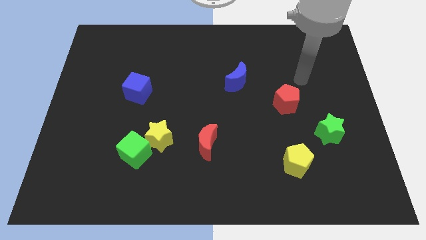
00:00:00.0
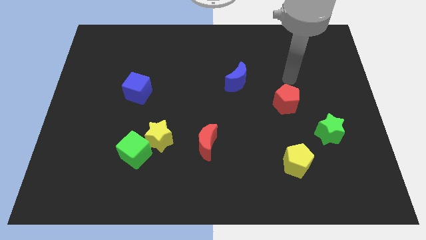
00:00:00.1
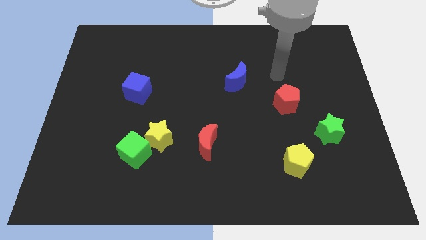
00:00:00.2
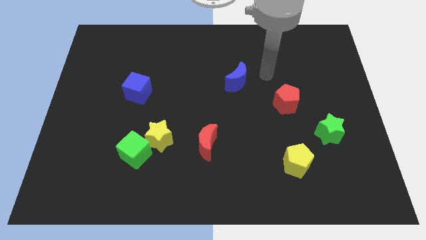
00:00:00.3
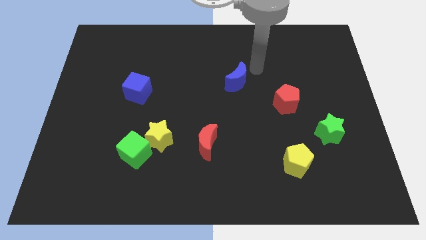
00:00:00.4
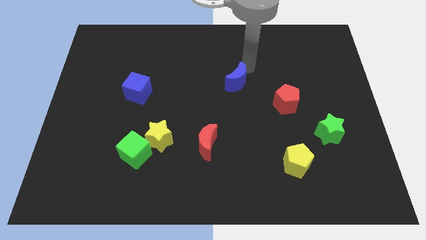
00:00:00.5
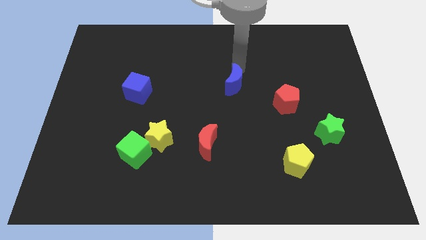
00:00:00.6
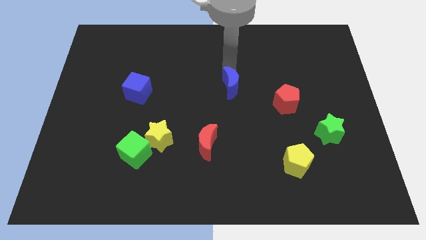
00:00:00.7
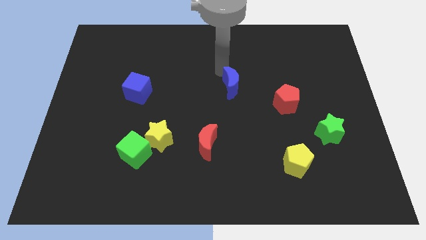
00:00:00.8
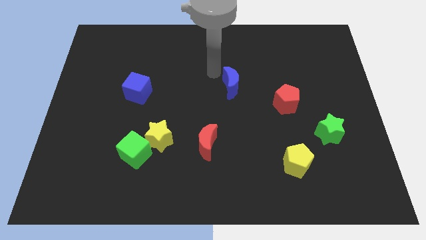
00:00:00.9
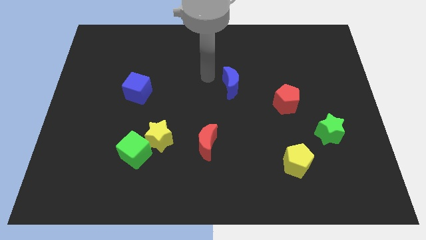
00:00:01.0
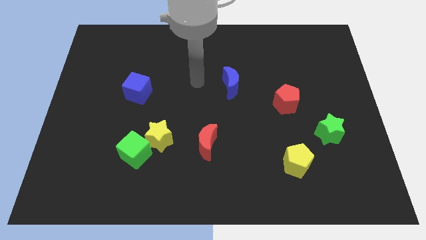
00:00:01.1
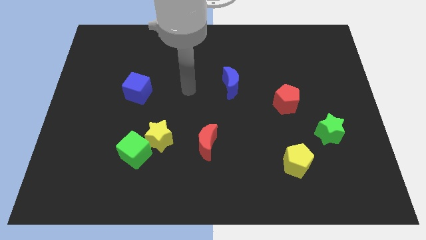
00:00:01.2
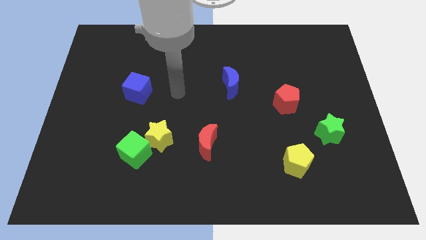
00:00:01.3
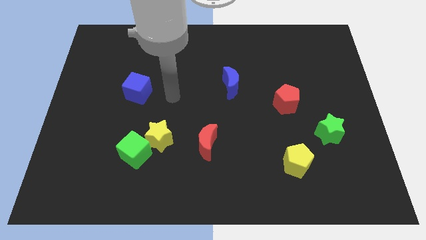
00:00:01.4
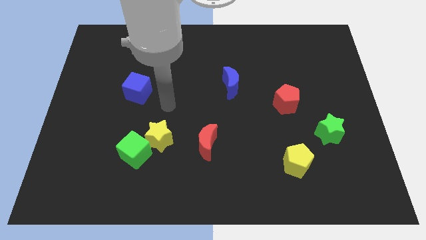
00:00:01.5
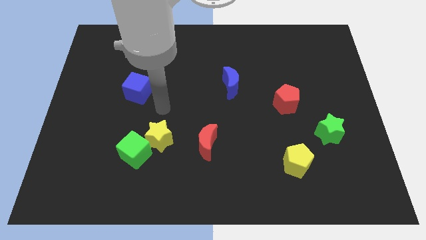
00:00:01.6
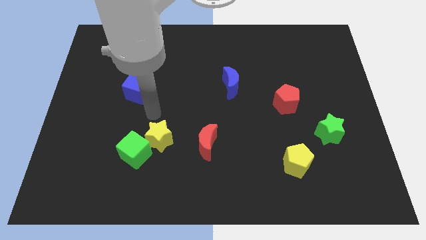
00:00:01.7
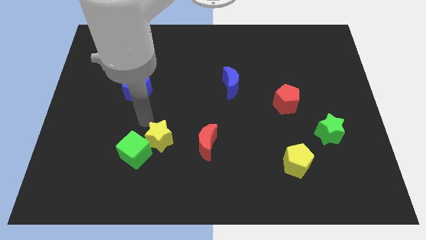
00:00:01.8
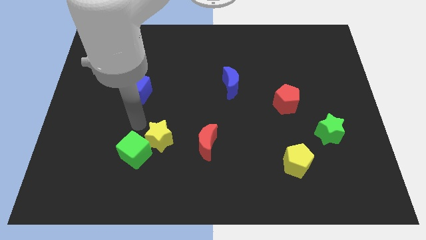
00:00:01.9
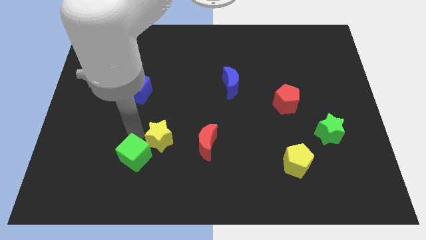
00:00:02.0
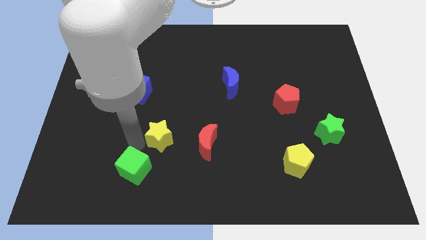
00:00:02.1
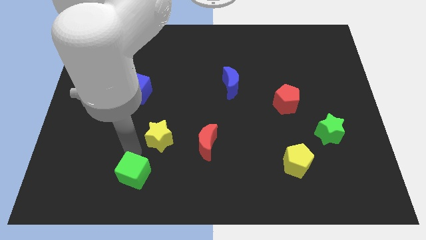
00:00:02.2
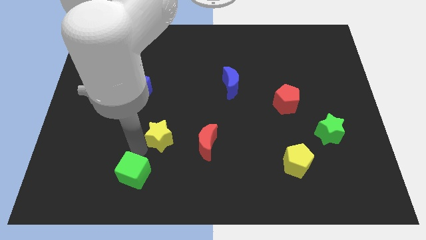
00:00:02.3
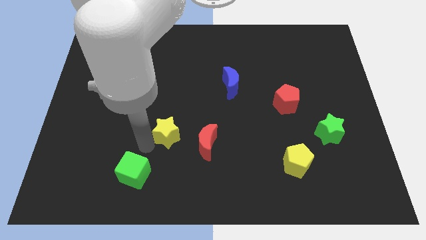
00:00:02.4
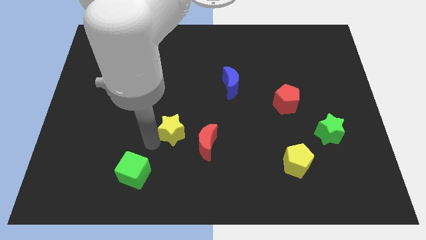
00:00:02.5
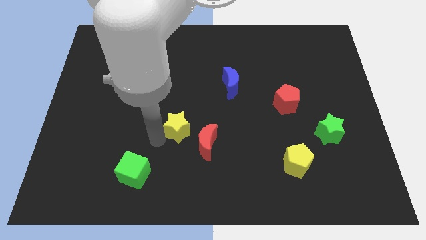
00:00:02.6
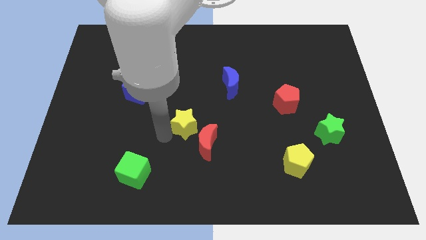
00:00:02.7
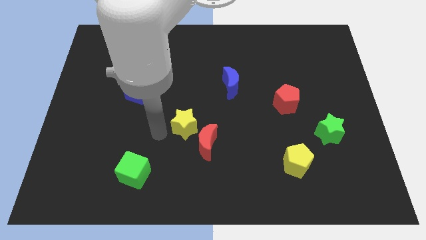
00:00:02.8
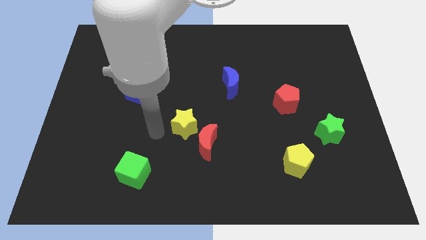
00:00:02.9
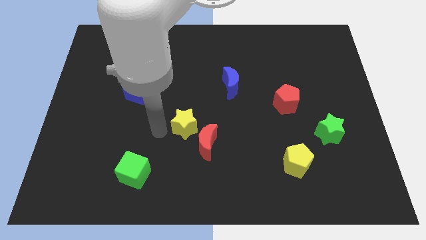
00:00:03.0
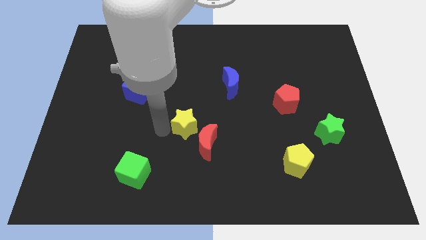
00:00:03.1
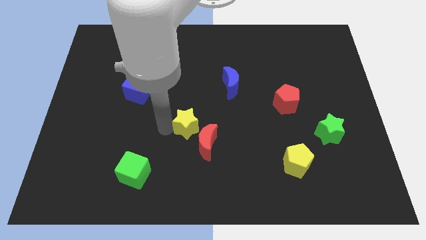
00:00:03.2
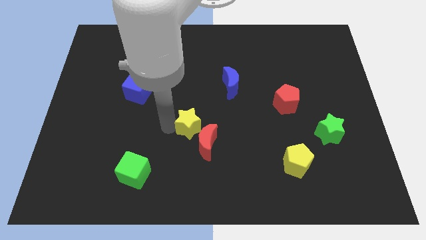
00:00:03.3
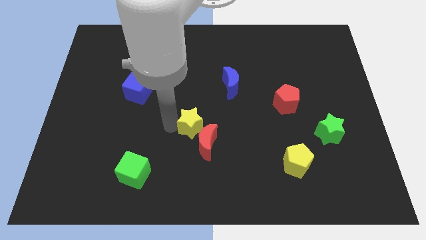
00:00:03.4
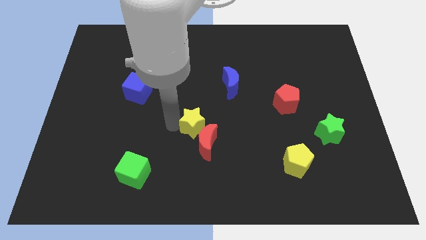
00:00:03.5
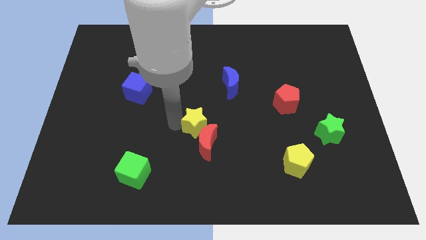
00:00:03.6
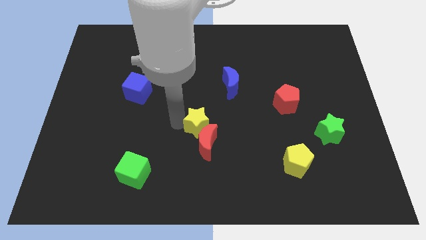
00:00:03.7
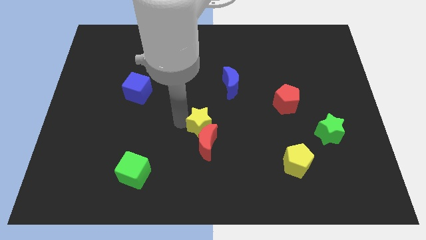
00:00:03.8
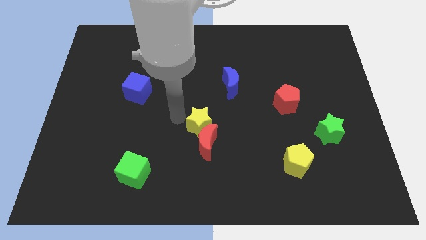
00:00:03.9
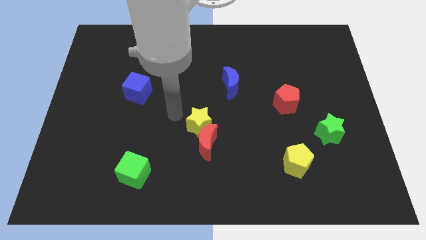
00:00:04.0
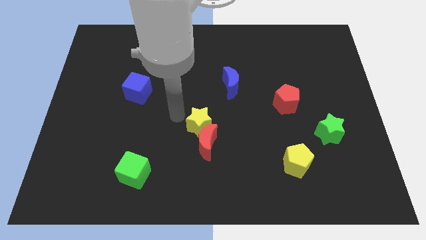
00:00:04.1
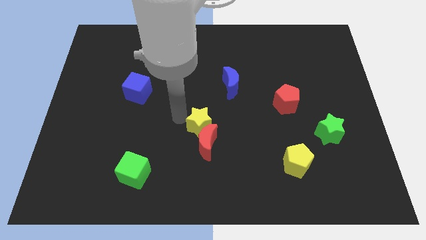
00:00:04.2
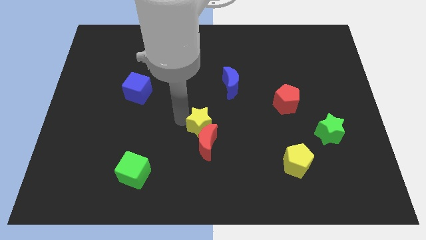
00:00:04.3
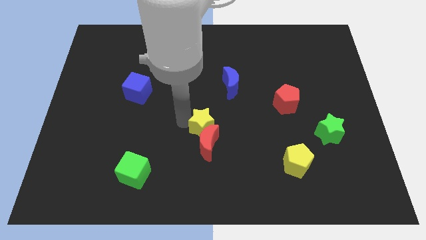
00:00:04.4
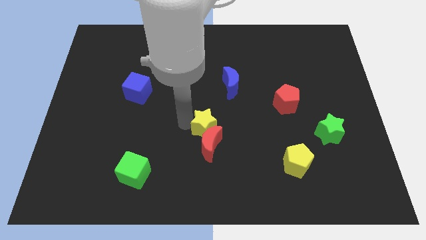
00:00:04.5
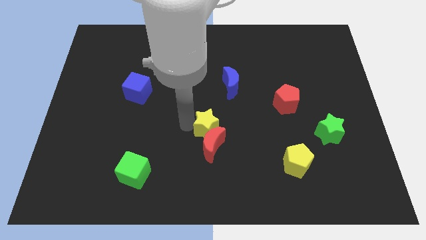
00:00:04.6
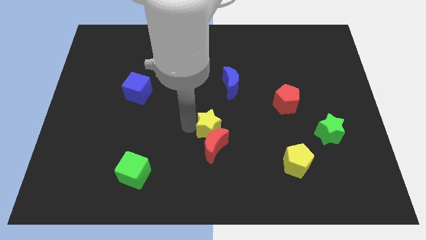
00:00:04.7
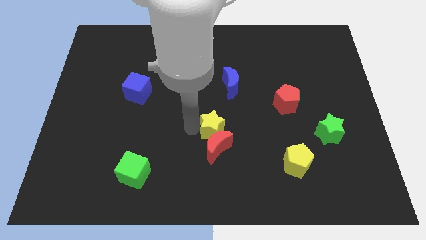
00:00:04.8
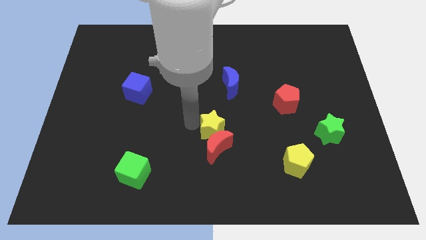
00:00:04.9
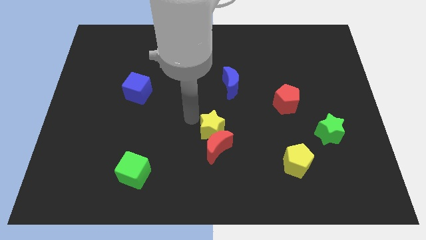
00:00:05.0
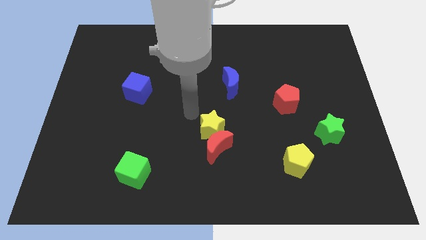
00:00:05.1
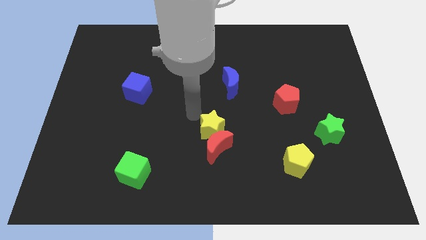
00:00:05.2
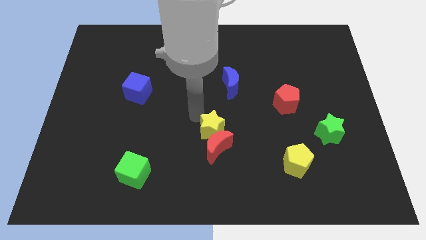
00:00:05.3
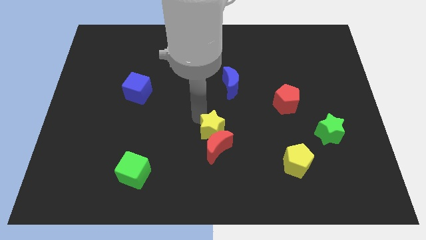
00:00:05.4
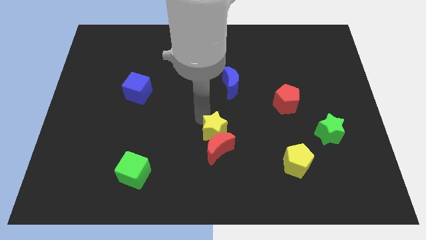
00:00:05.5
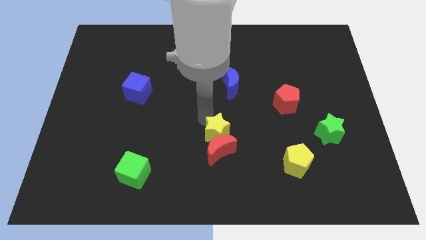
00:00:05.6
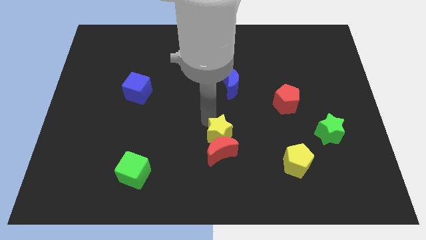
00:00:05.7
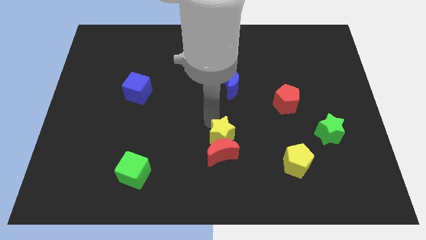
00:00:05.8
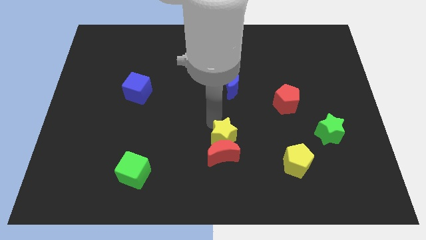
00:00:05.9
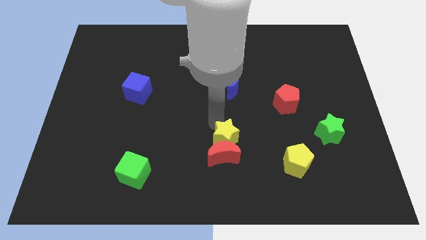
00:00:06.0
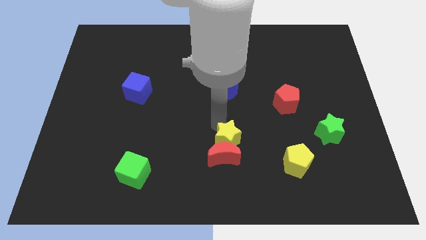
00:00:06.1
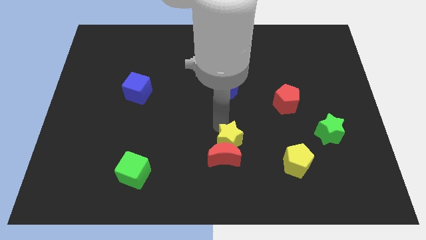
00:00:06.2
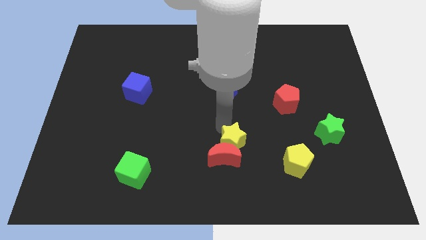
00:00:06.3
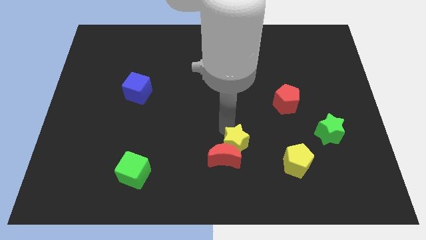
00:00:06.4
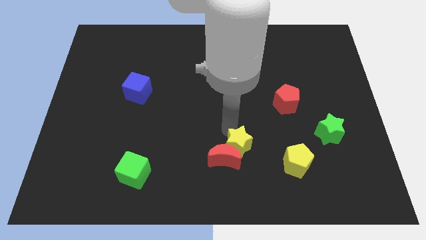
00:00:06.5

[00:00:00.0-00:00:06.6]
slide the yellow star to the left of the yellow pentagon
